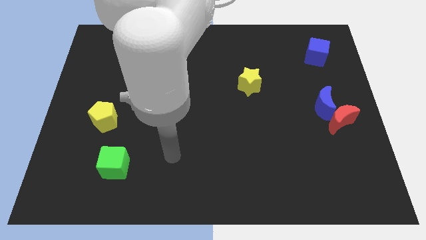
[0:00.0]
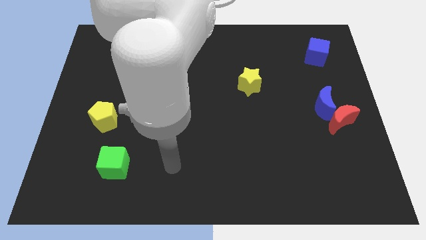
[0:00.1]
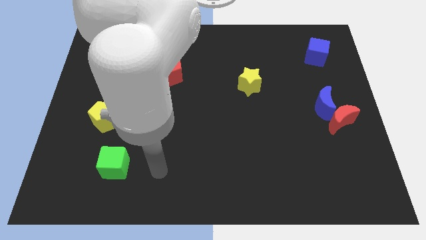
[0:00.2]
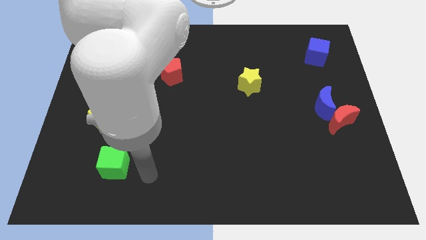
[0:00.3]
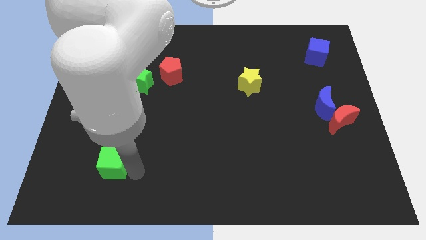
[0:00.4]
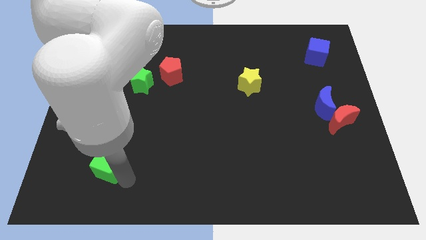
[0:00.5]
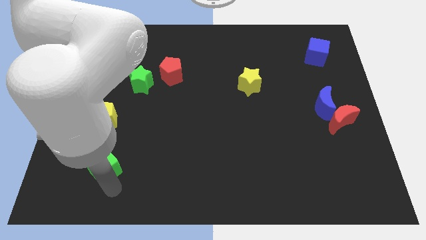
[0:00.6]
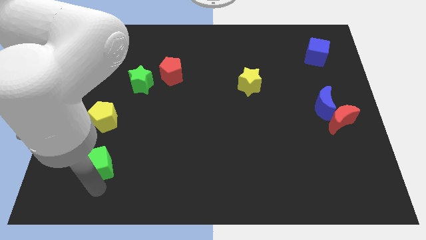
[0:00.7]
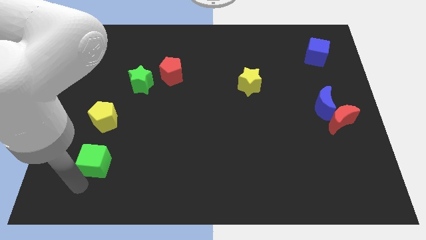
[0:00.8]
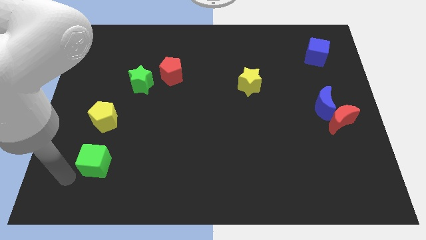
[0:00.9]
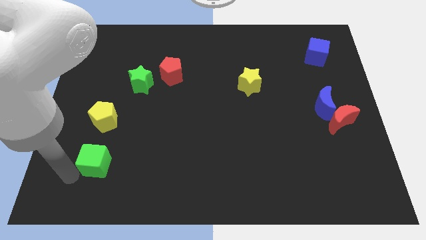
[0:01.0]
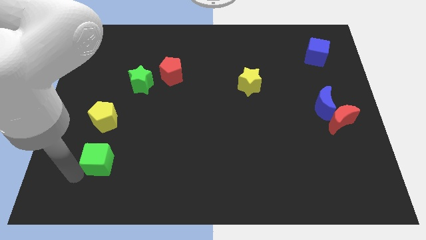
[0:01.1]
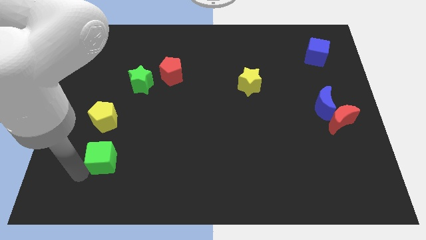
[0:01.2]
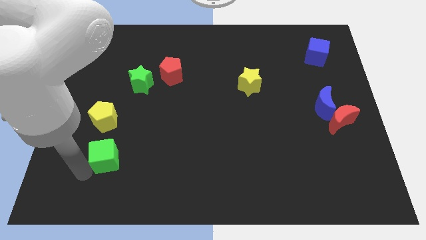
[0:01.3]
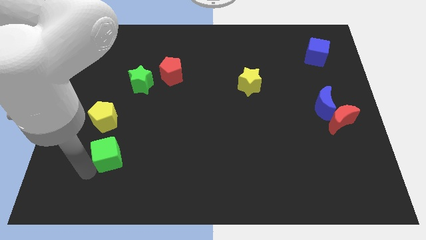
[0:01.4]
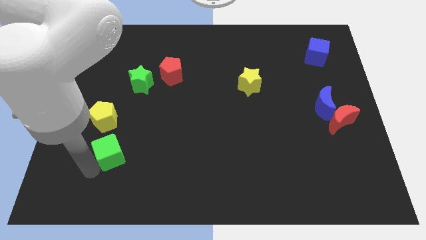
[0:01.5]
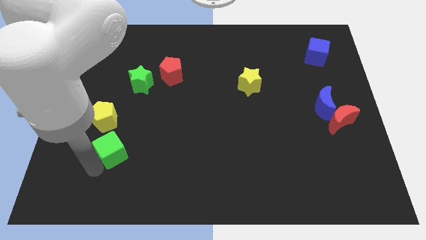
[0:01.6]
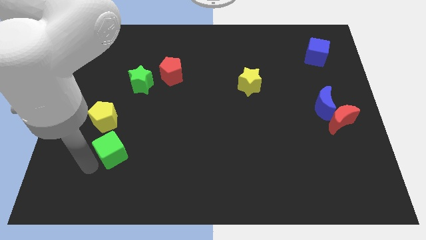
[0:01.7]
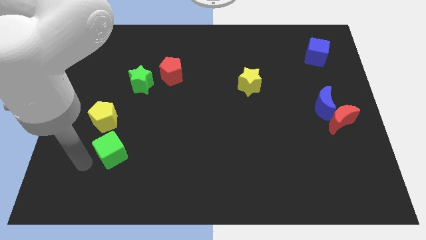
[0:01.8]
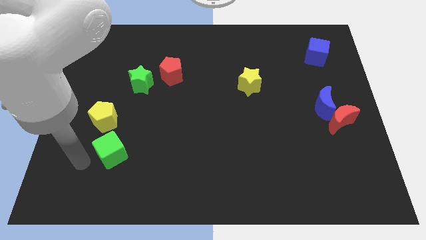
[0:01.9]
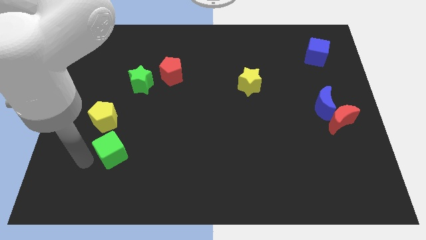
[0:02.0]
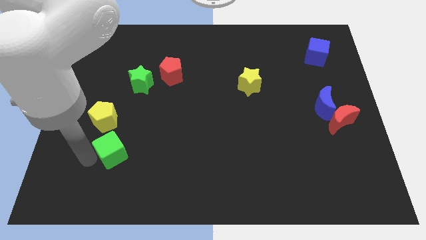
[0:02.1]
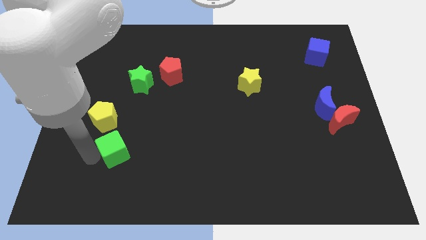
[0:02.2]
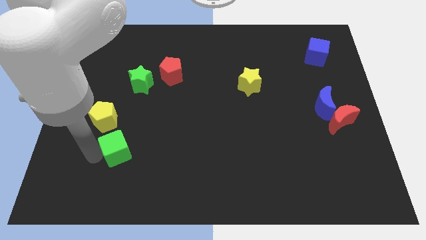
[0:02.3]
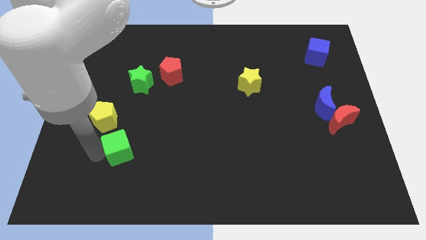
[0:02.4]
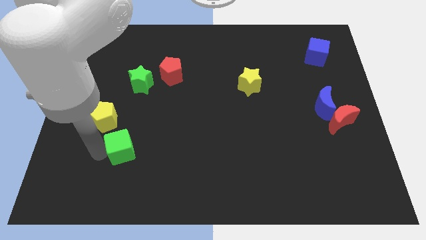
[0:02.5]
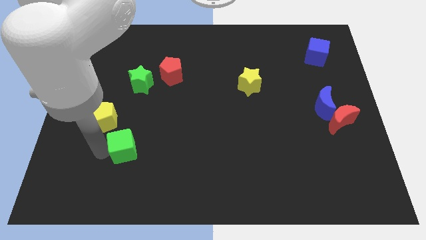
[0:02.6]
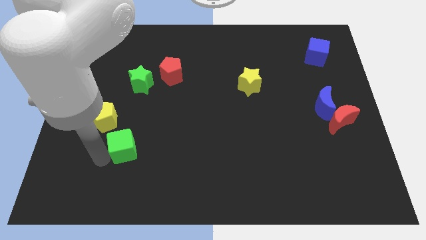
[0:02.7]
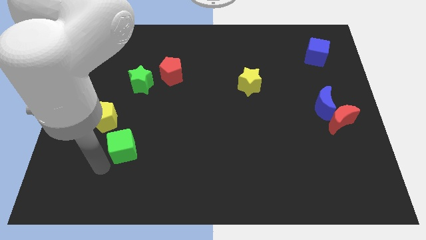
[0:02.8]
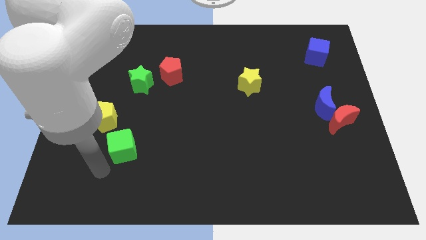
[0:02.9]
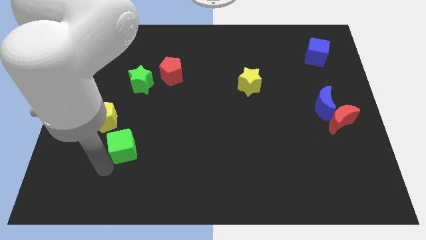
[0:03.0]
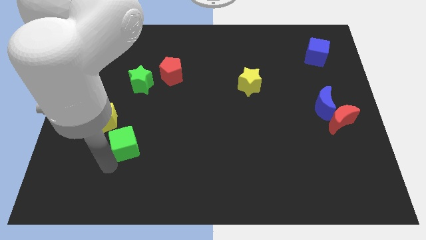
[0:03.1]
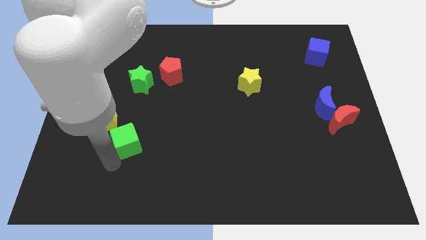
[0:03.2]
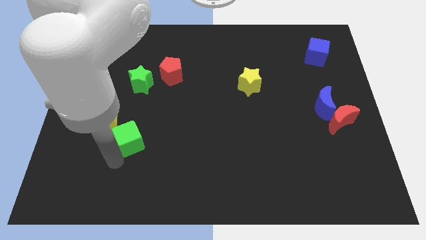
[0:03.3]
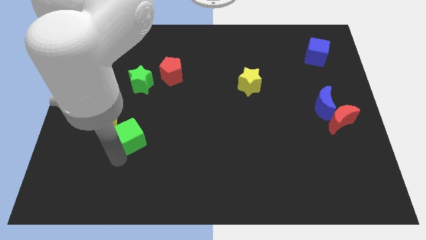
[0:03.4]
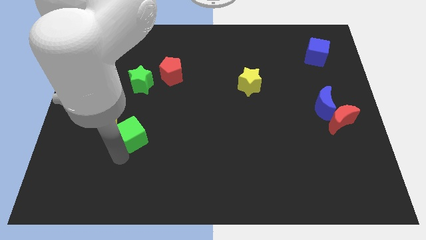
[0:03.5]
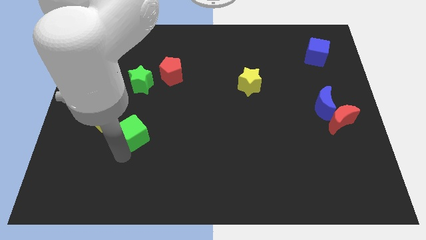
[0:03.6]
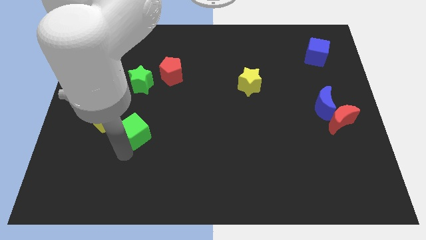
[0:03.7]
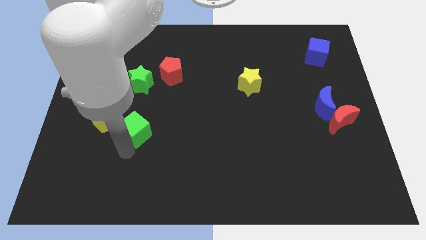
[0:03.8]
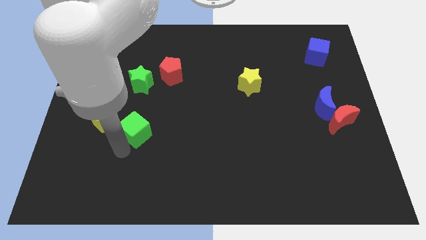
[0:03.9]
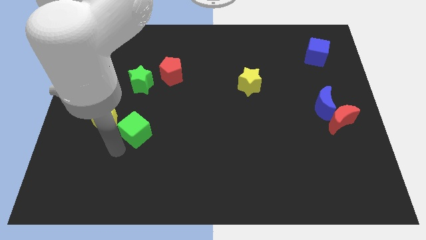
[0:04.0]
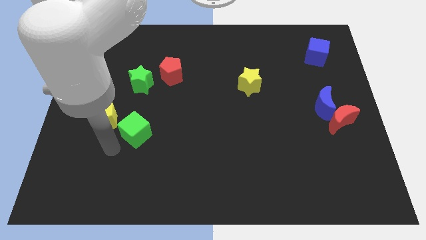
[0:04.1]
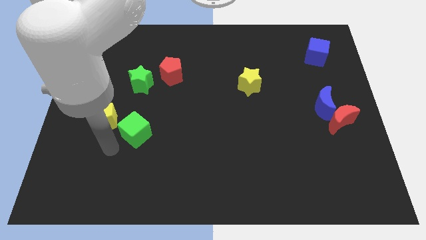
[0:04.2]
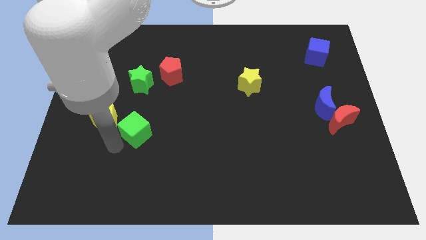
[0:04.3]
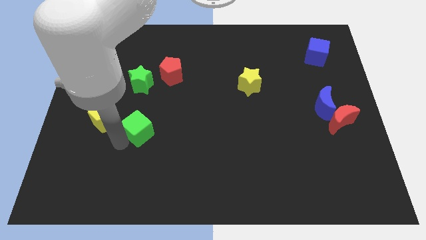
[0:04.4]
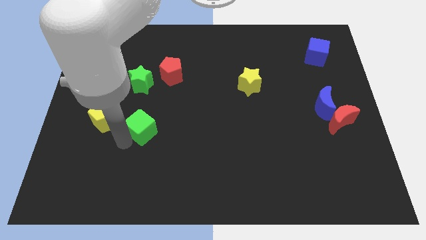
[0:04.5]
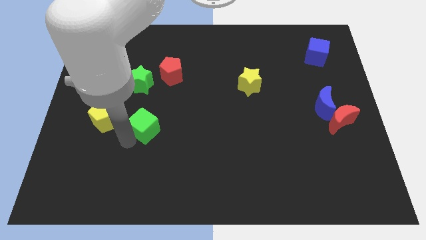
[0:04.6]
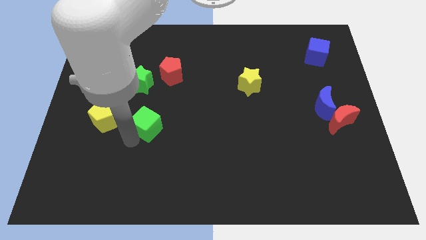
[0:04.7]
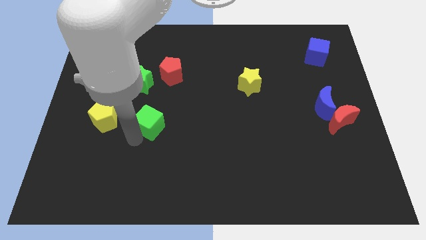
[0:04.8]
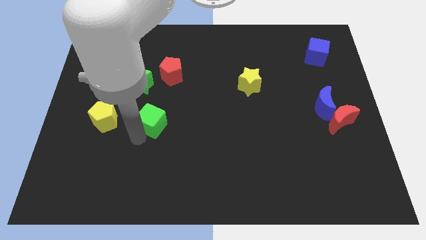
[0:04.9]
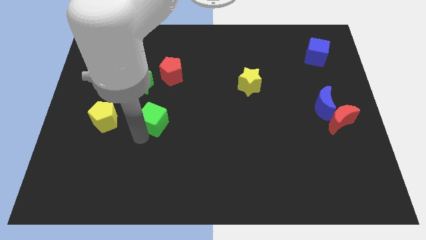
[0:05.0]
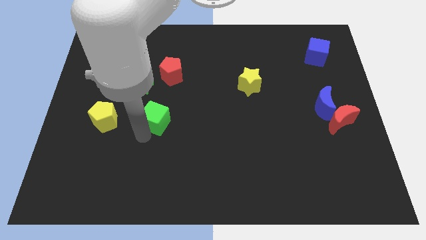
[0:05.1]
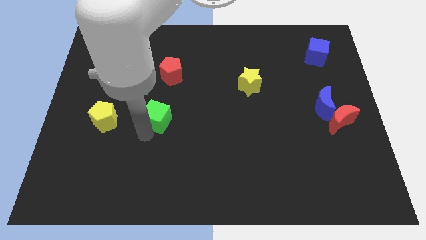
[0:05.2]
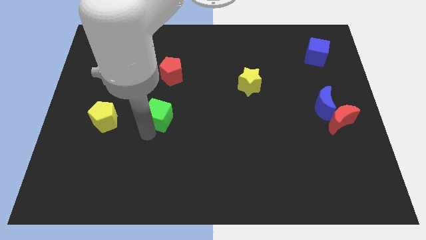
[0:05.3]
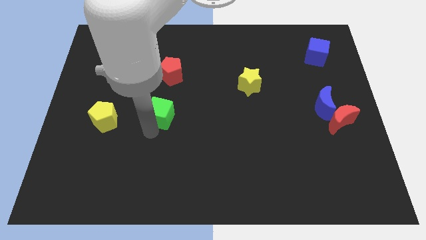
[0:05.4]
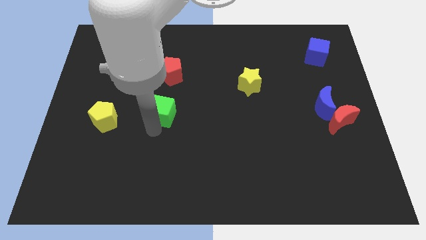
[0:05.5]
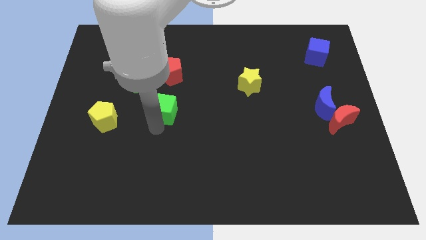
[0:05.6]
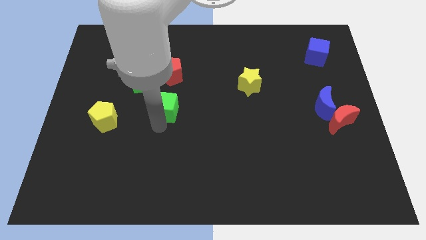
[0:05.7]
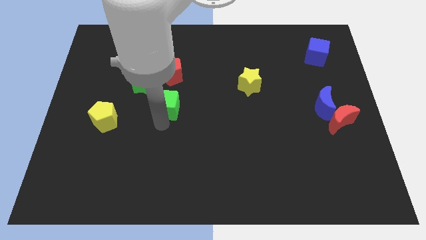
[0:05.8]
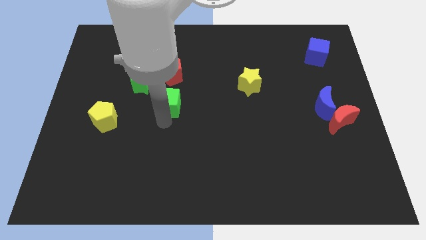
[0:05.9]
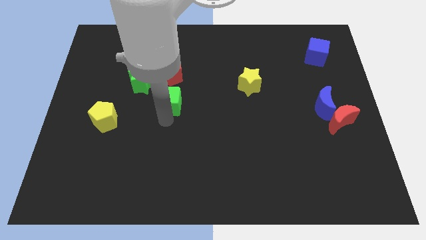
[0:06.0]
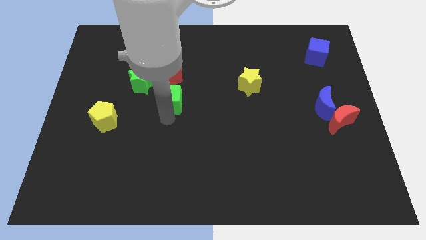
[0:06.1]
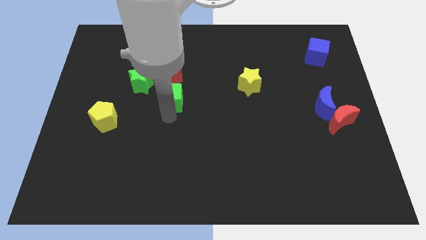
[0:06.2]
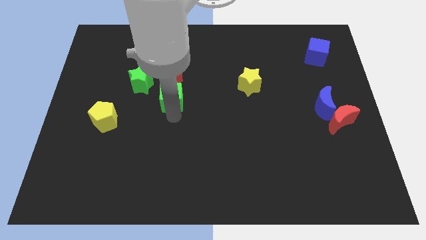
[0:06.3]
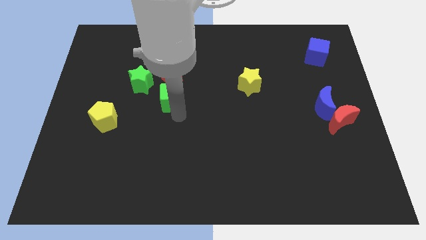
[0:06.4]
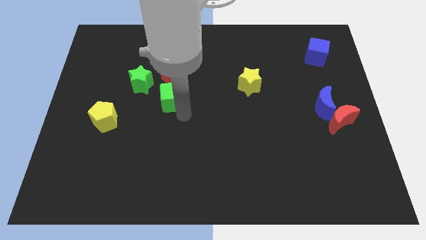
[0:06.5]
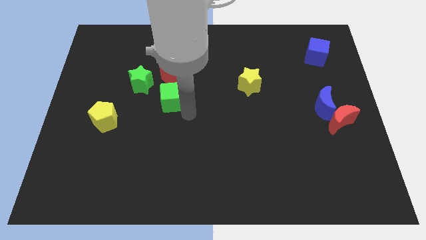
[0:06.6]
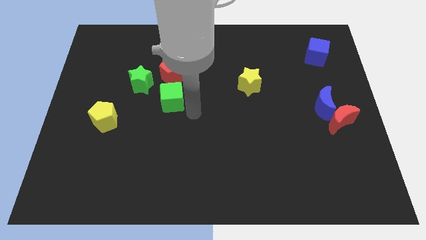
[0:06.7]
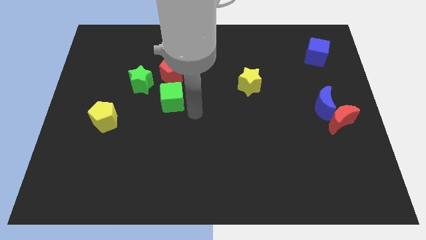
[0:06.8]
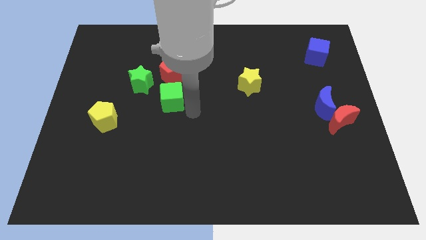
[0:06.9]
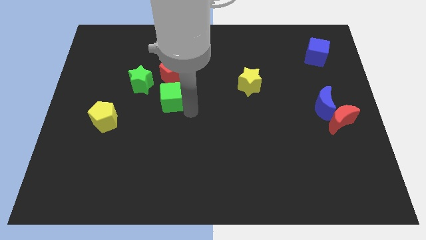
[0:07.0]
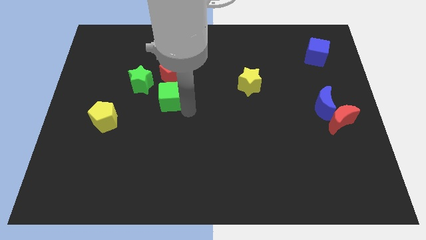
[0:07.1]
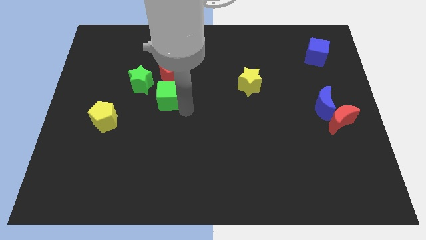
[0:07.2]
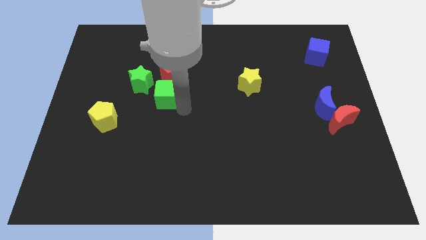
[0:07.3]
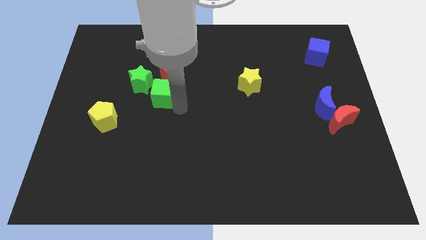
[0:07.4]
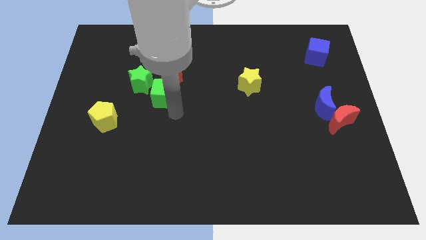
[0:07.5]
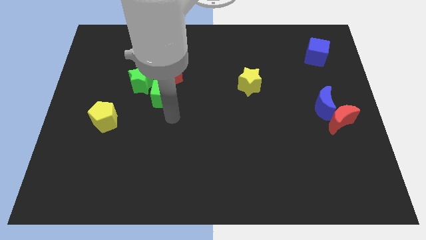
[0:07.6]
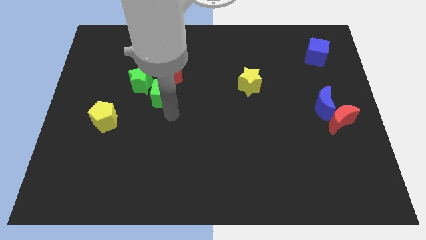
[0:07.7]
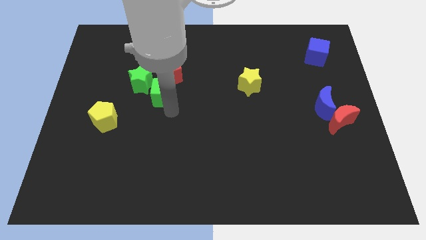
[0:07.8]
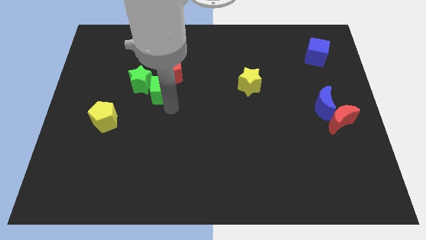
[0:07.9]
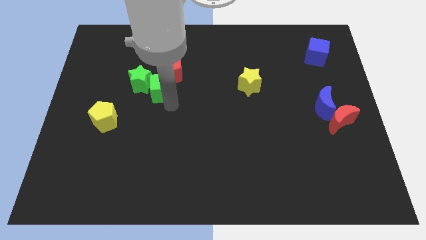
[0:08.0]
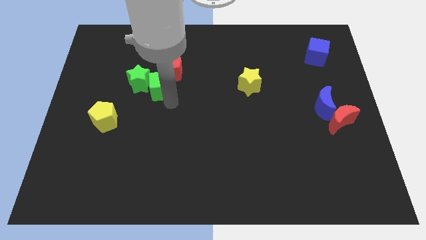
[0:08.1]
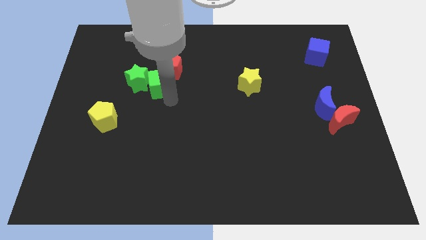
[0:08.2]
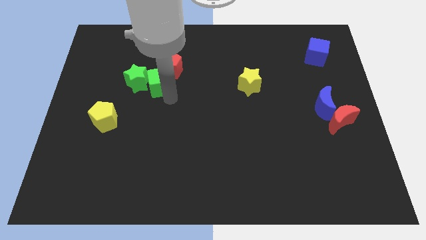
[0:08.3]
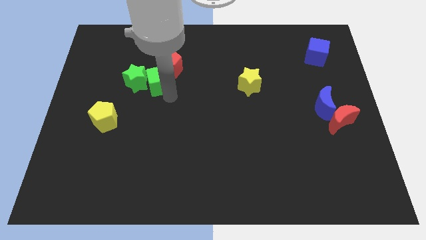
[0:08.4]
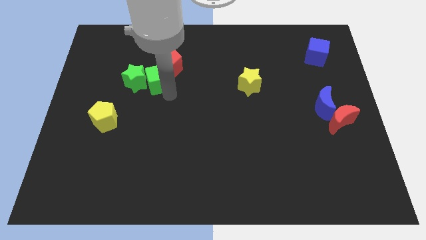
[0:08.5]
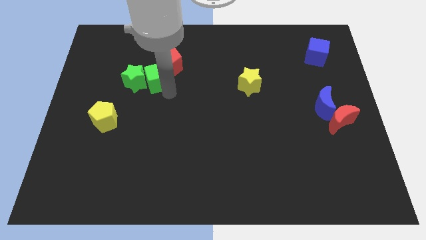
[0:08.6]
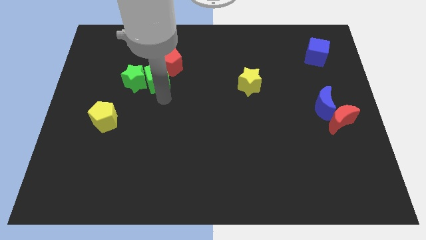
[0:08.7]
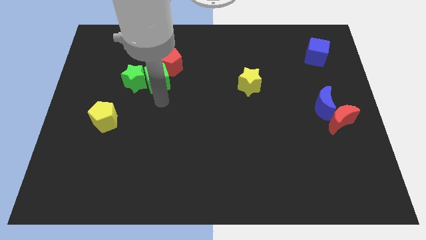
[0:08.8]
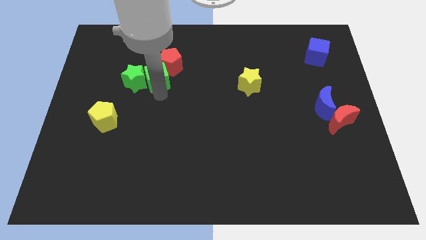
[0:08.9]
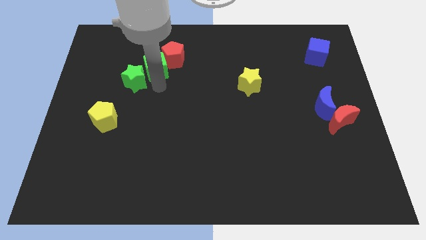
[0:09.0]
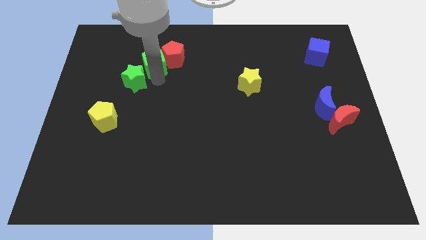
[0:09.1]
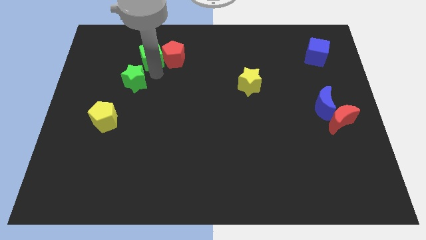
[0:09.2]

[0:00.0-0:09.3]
push the green cube to the top left of the red pentagon
